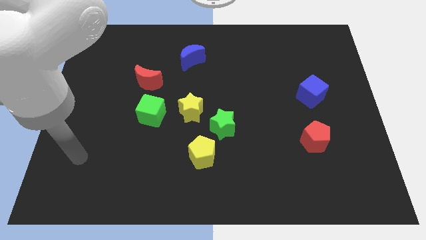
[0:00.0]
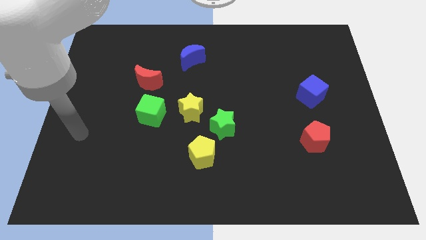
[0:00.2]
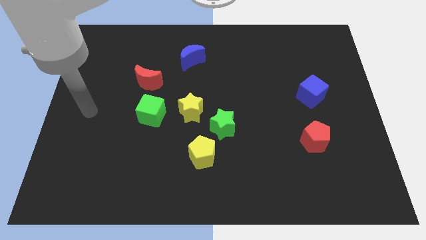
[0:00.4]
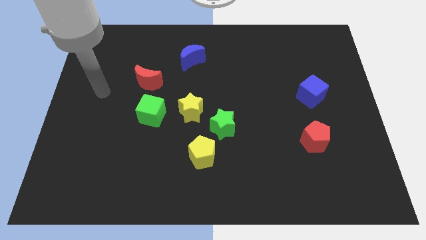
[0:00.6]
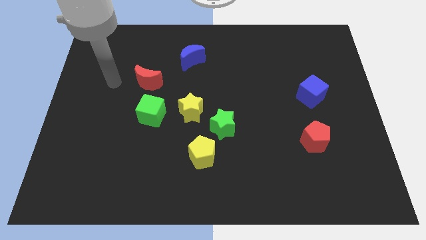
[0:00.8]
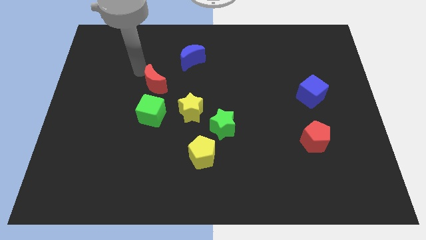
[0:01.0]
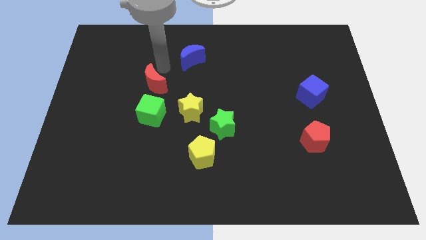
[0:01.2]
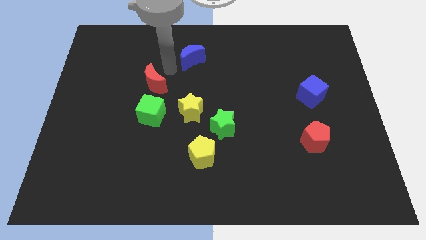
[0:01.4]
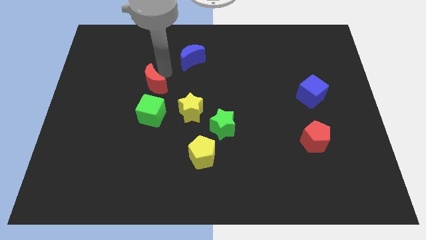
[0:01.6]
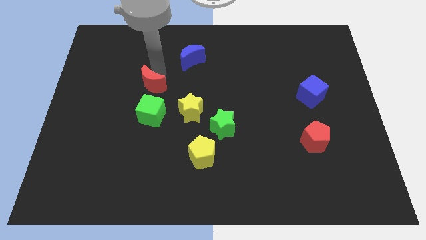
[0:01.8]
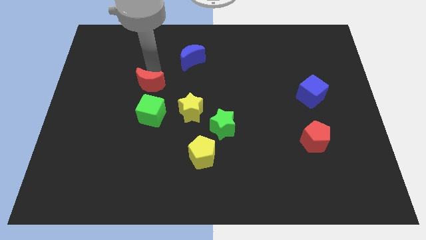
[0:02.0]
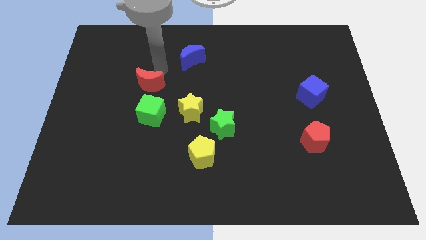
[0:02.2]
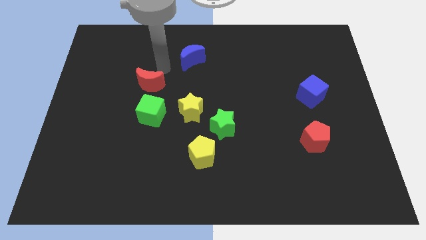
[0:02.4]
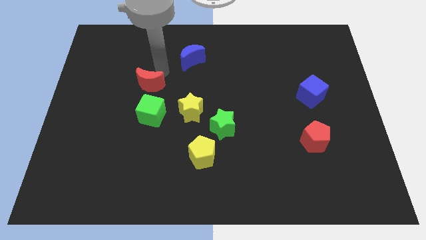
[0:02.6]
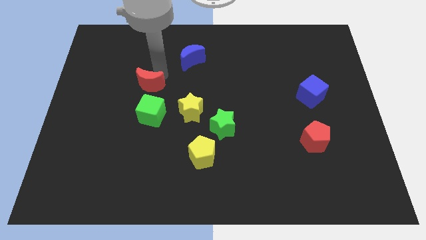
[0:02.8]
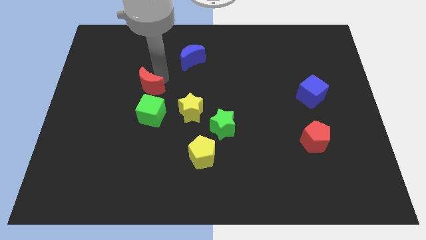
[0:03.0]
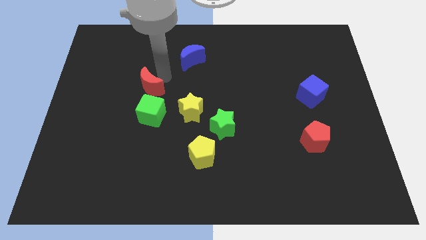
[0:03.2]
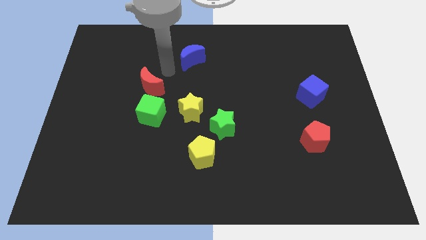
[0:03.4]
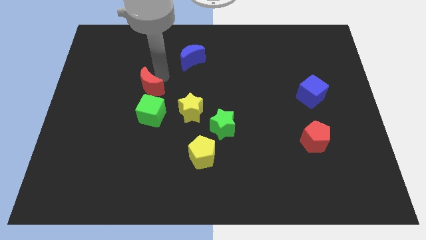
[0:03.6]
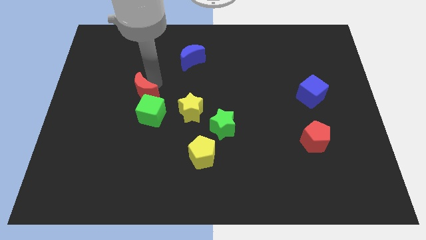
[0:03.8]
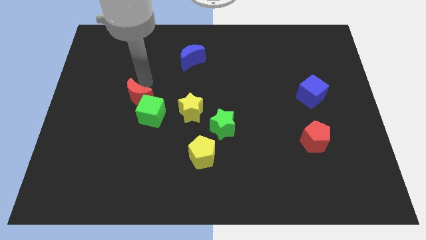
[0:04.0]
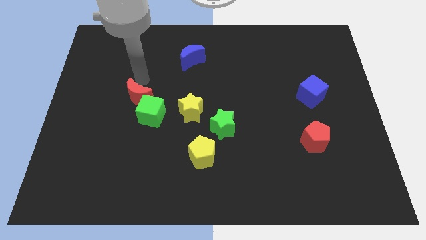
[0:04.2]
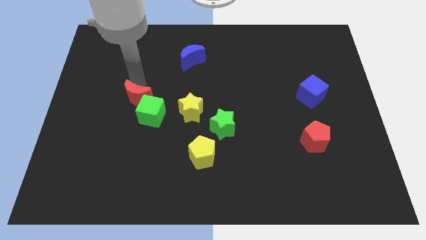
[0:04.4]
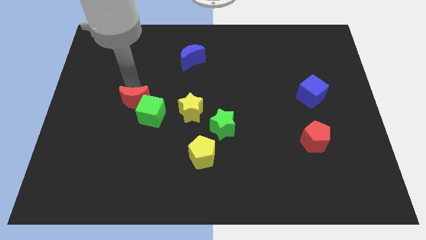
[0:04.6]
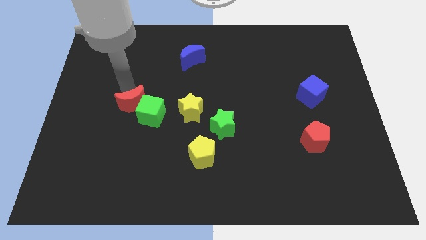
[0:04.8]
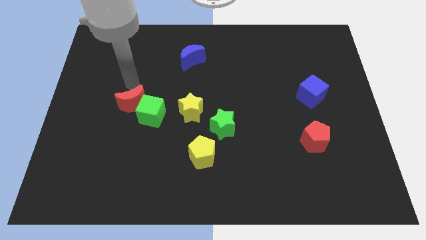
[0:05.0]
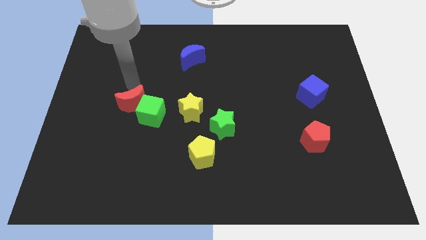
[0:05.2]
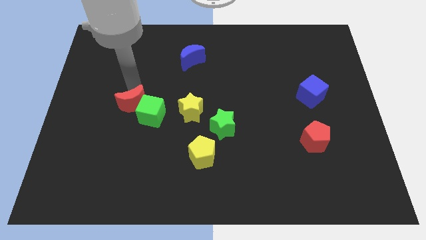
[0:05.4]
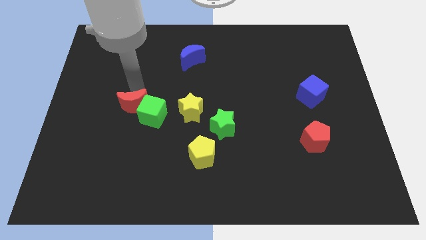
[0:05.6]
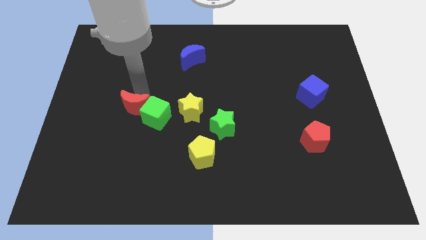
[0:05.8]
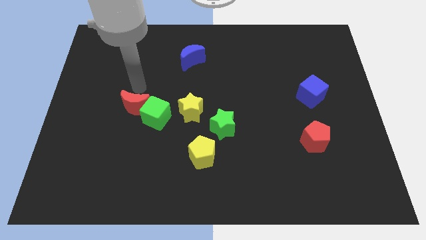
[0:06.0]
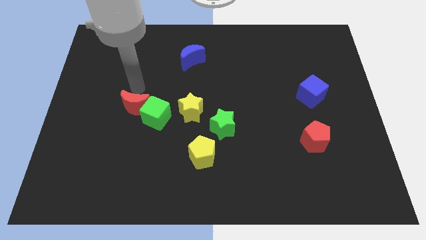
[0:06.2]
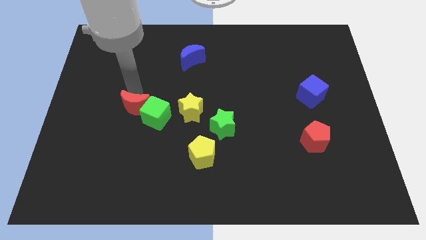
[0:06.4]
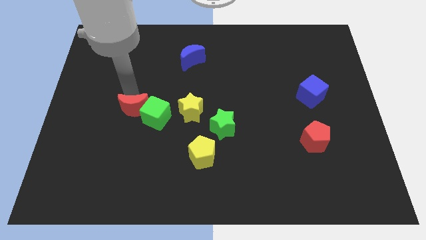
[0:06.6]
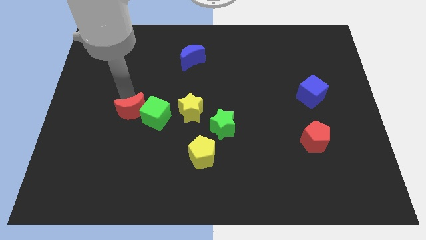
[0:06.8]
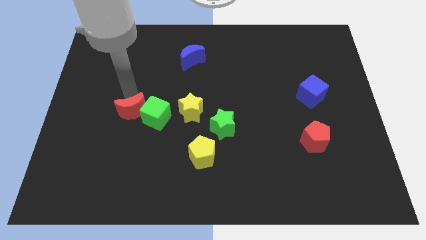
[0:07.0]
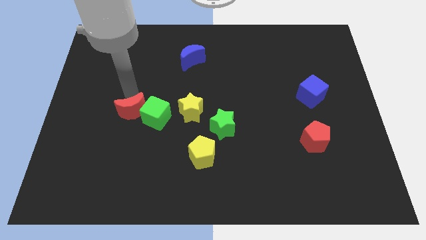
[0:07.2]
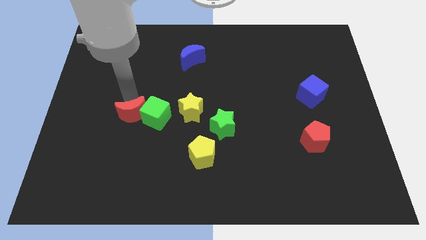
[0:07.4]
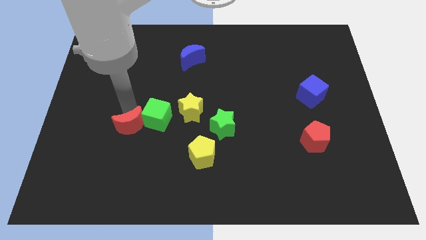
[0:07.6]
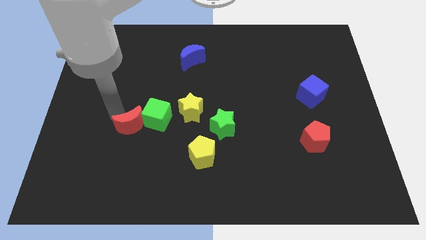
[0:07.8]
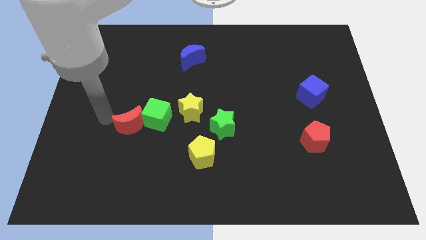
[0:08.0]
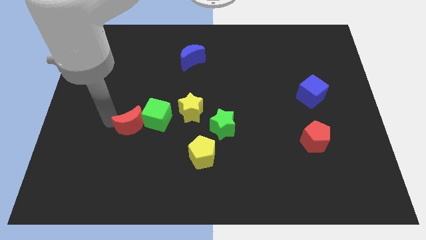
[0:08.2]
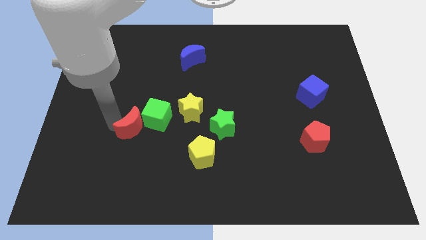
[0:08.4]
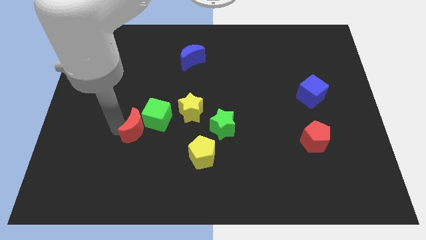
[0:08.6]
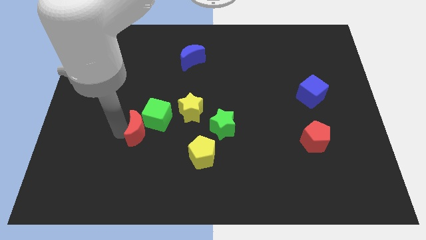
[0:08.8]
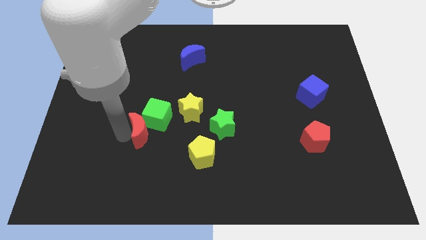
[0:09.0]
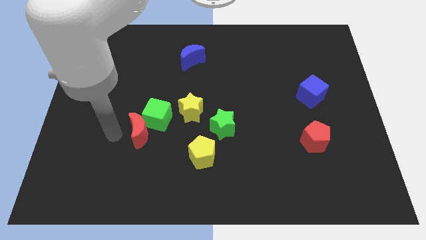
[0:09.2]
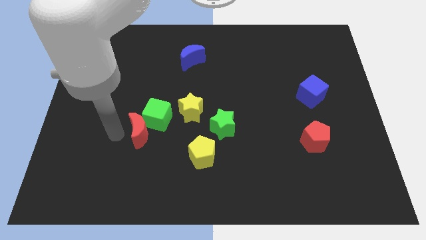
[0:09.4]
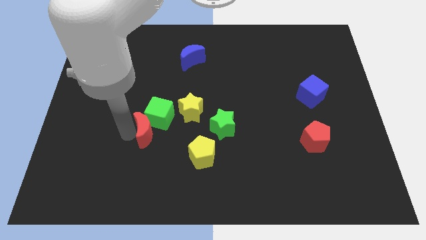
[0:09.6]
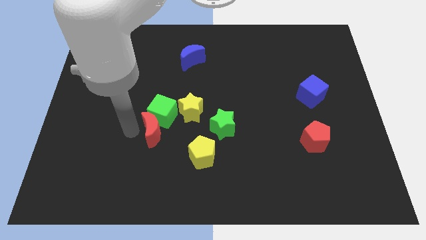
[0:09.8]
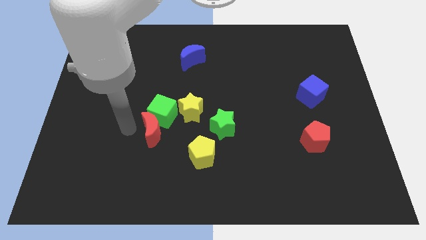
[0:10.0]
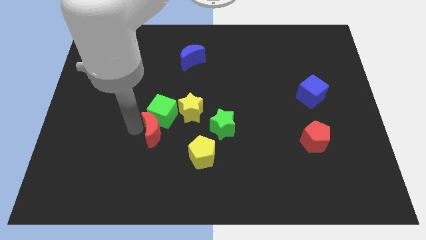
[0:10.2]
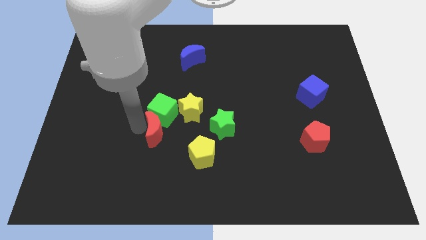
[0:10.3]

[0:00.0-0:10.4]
put the red moon to the top left of the yellow pentagon

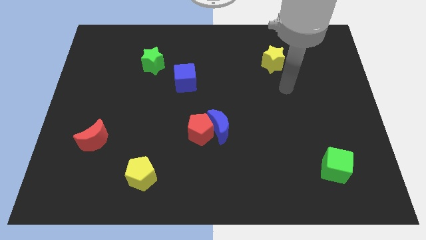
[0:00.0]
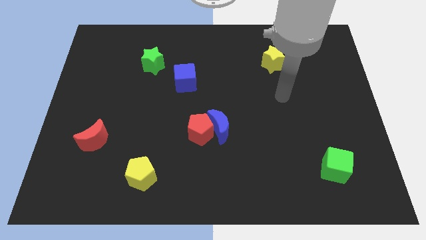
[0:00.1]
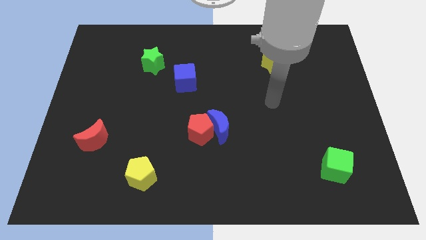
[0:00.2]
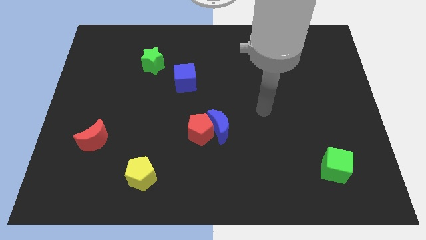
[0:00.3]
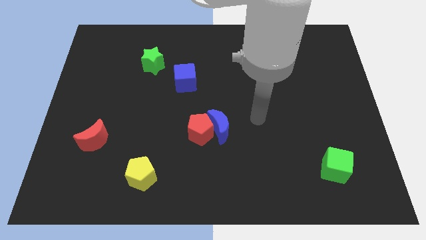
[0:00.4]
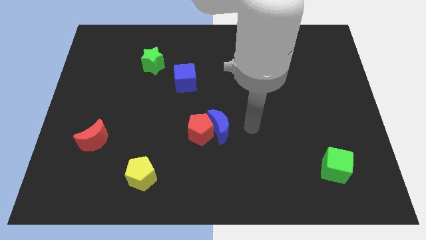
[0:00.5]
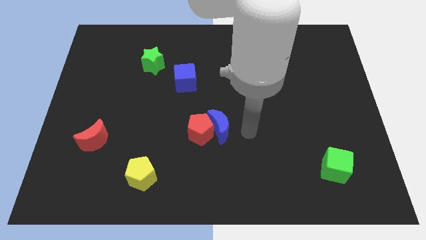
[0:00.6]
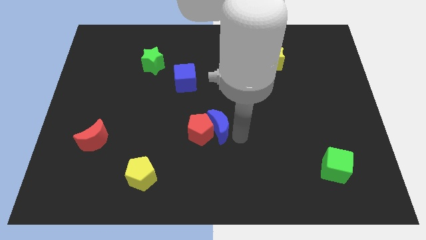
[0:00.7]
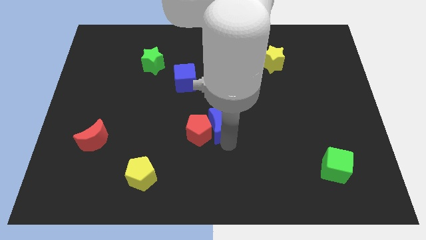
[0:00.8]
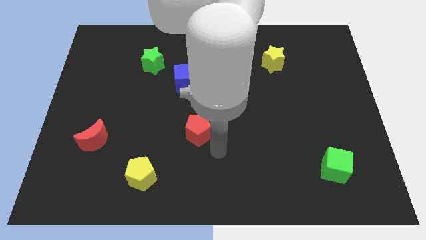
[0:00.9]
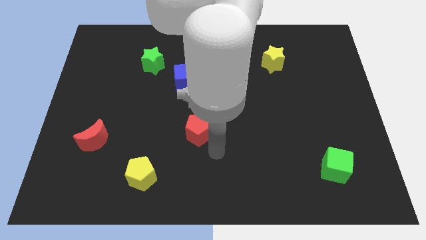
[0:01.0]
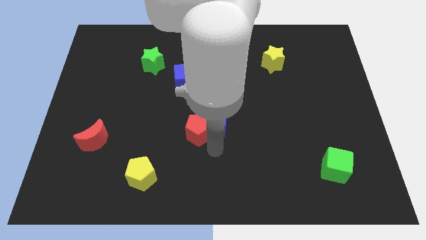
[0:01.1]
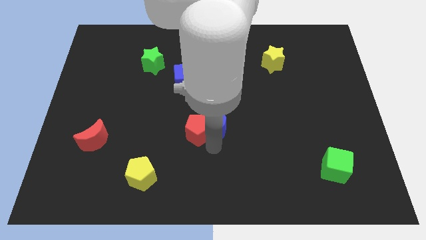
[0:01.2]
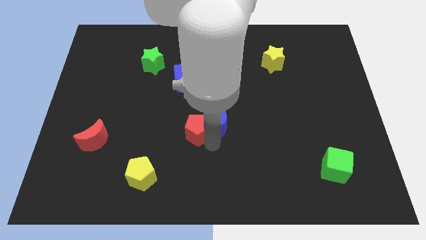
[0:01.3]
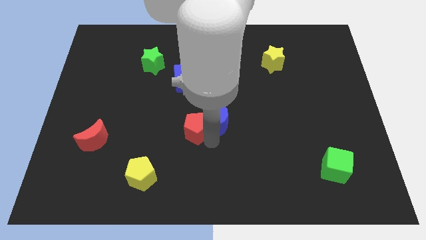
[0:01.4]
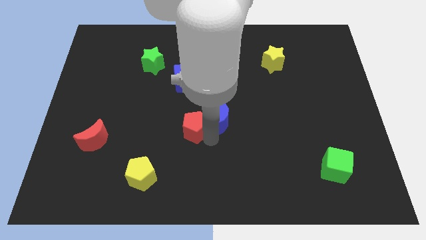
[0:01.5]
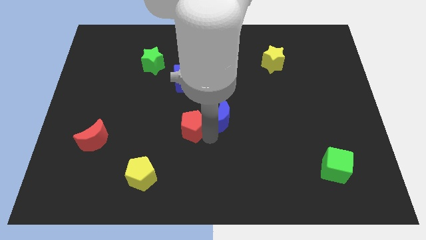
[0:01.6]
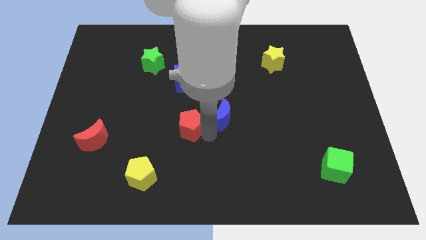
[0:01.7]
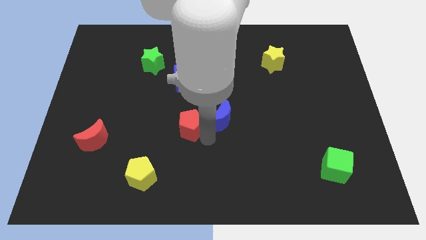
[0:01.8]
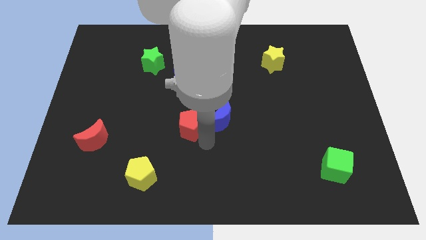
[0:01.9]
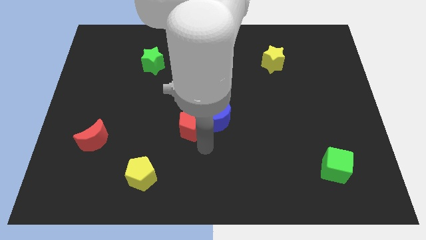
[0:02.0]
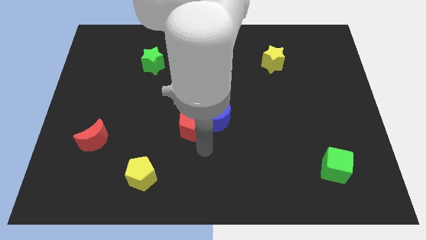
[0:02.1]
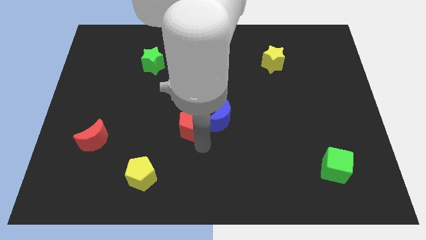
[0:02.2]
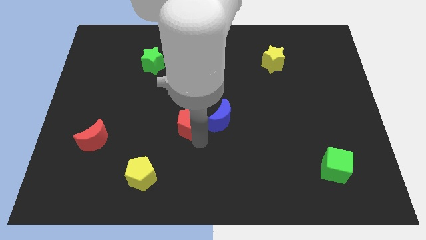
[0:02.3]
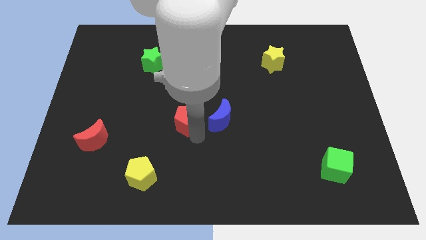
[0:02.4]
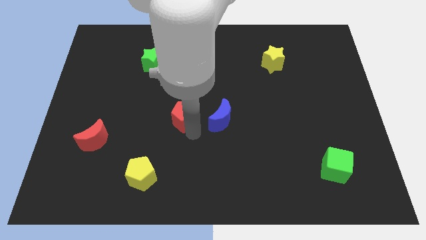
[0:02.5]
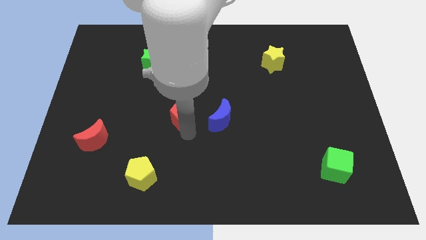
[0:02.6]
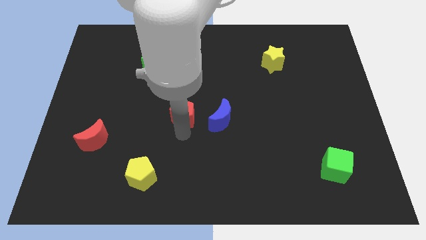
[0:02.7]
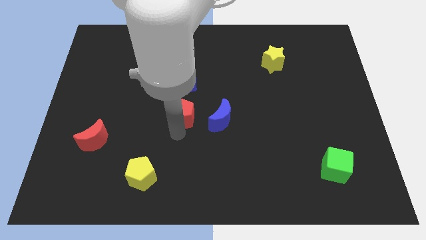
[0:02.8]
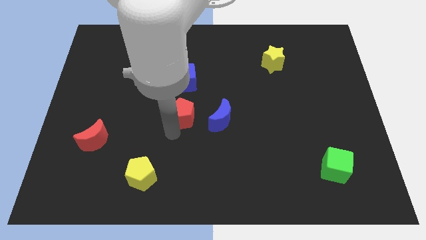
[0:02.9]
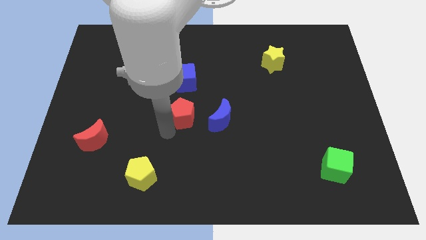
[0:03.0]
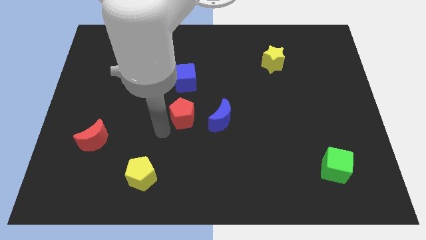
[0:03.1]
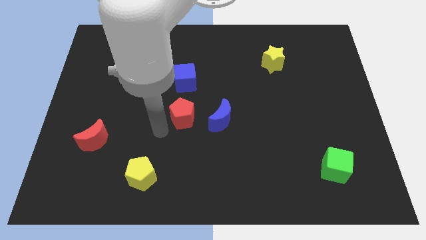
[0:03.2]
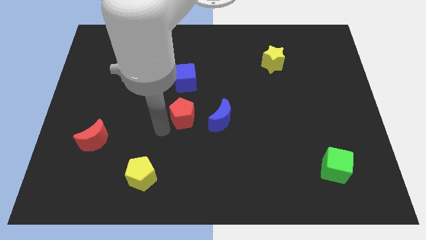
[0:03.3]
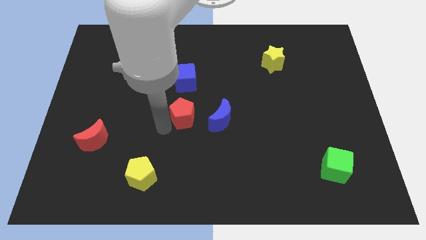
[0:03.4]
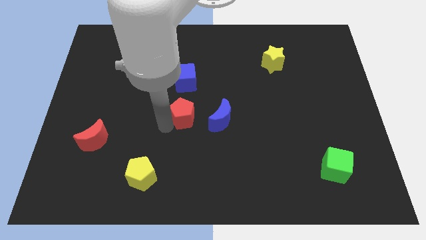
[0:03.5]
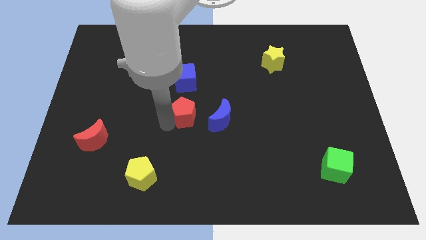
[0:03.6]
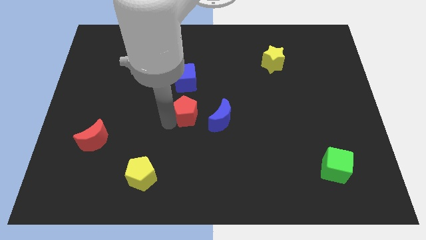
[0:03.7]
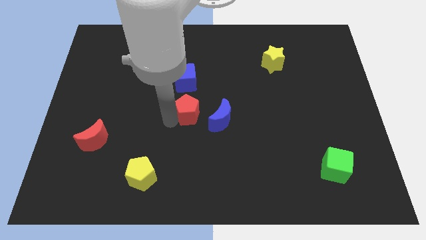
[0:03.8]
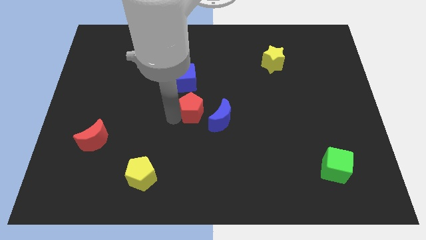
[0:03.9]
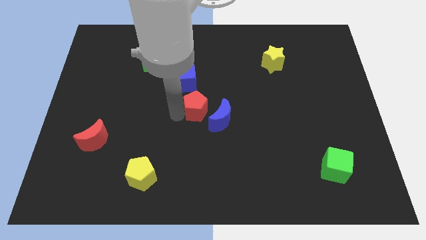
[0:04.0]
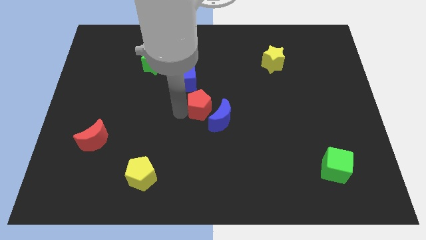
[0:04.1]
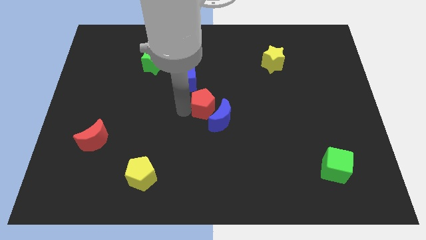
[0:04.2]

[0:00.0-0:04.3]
push the red pentagon to the top of the blue moon
